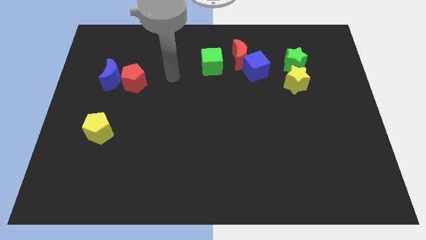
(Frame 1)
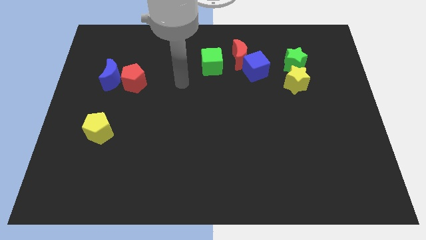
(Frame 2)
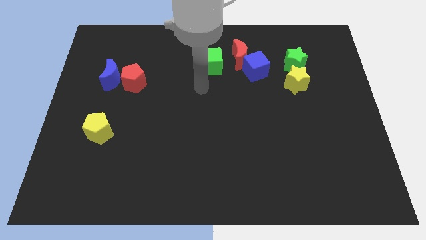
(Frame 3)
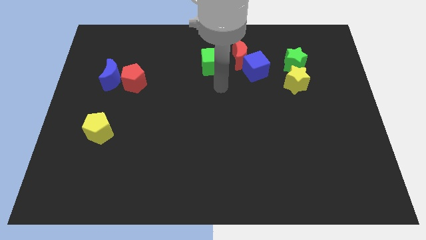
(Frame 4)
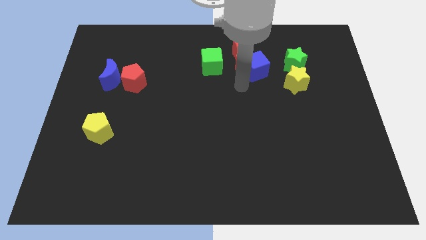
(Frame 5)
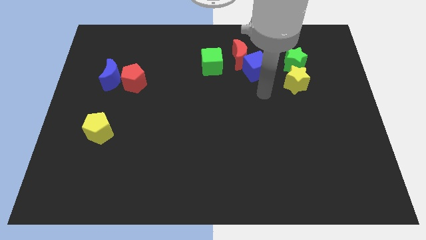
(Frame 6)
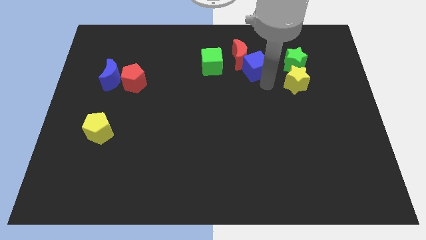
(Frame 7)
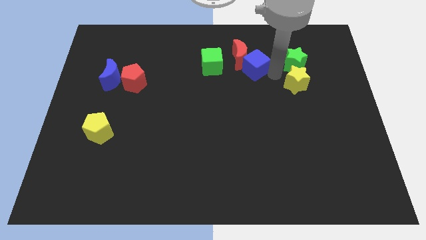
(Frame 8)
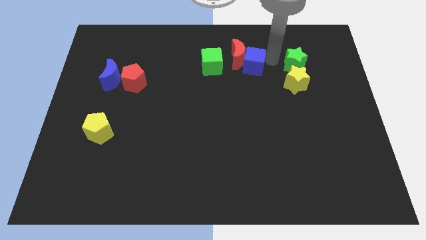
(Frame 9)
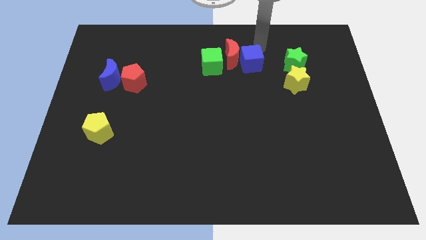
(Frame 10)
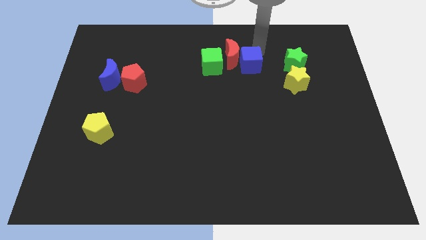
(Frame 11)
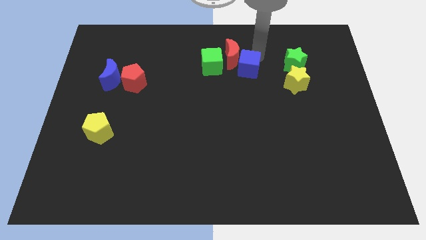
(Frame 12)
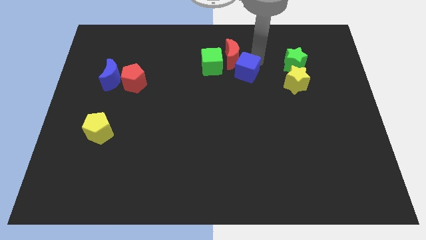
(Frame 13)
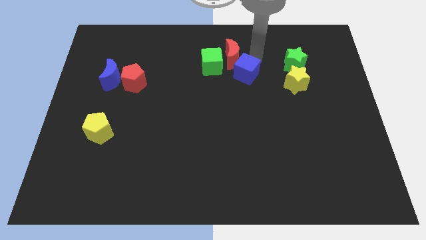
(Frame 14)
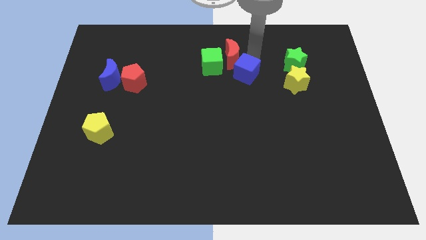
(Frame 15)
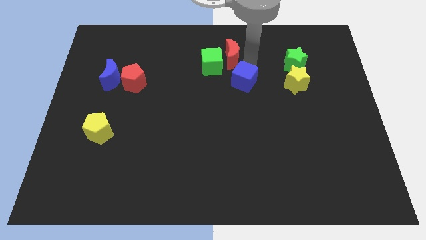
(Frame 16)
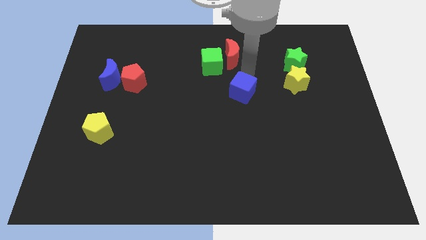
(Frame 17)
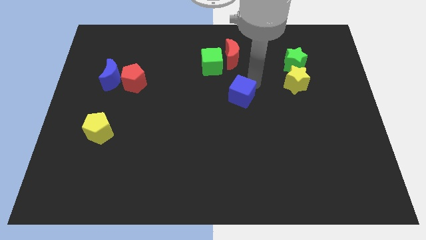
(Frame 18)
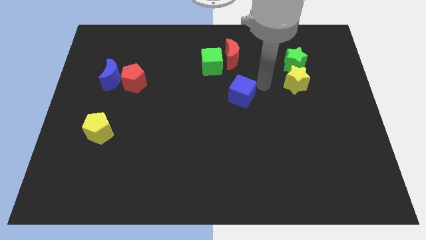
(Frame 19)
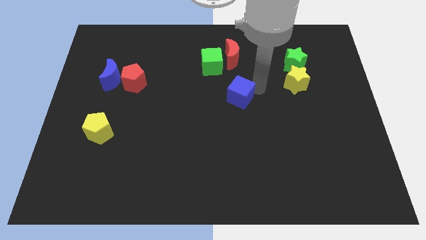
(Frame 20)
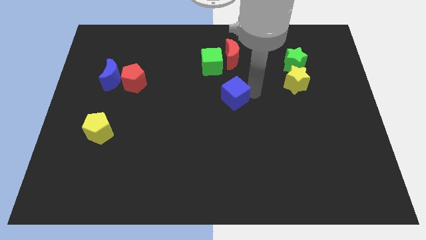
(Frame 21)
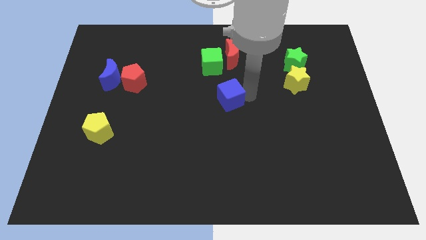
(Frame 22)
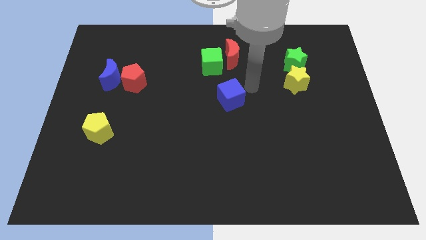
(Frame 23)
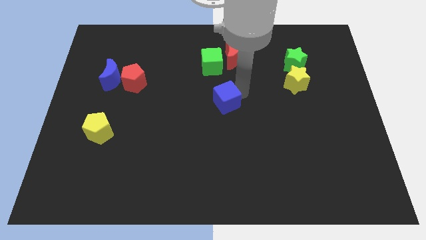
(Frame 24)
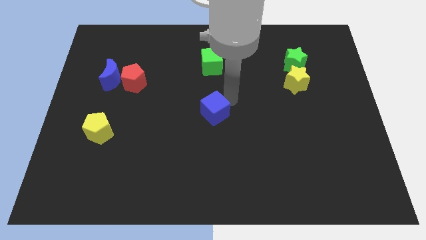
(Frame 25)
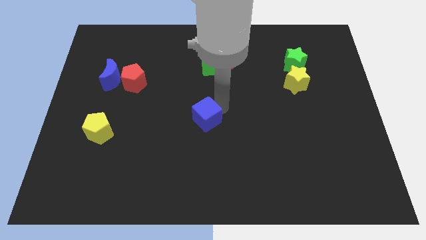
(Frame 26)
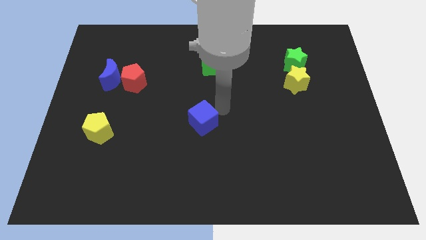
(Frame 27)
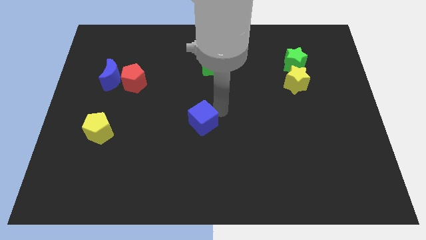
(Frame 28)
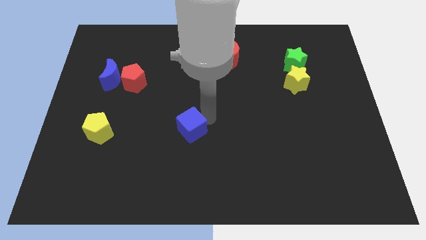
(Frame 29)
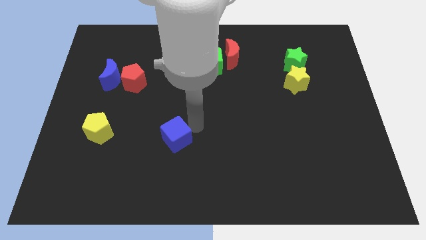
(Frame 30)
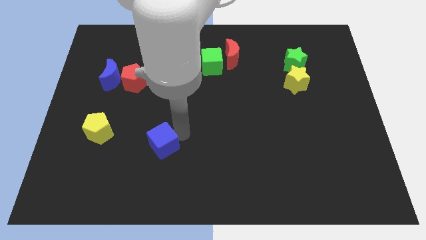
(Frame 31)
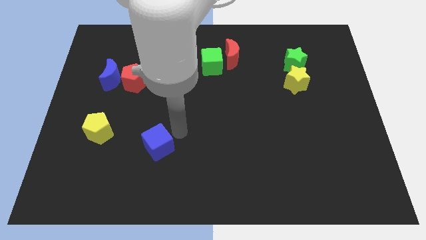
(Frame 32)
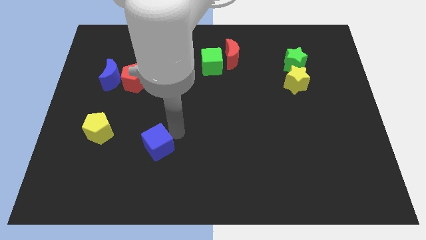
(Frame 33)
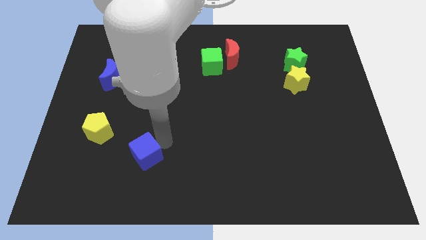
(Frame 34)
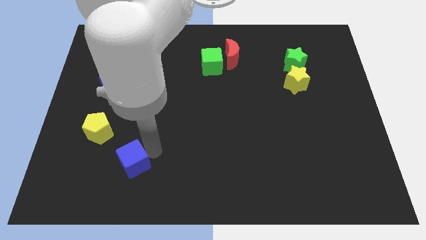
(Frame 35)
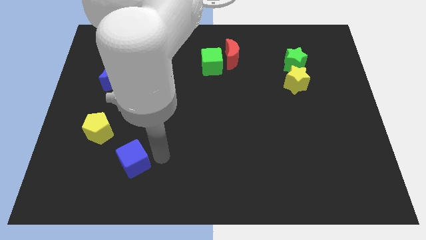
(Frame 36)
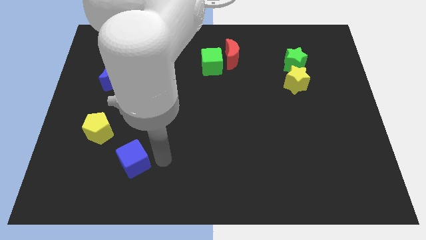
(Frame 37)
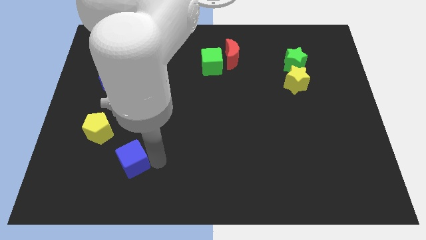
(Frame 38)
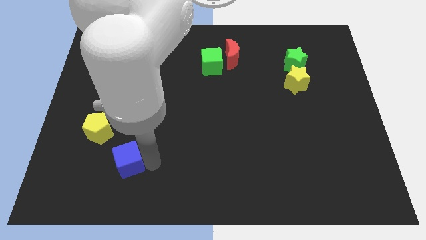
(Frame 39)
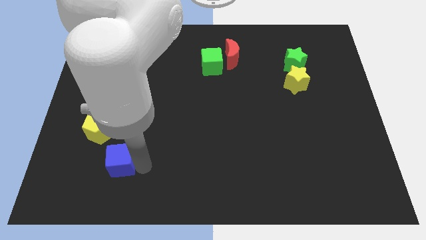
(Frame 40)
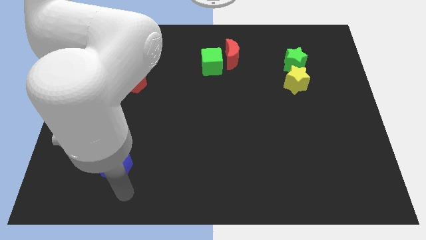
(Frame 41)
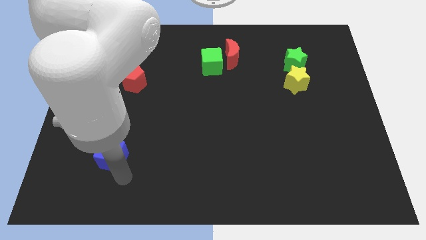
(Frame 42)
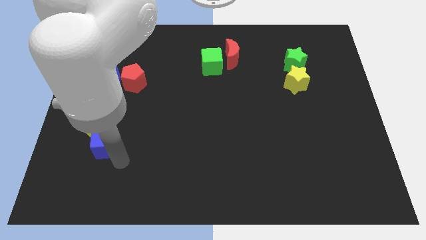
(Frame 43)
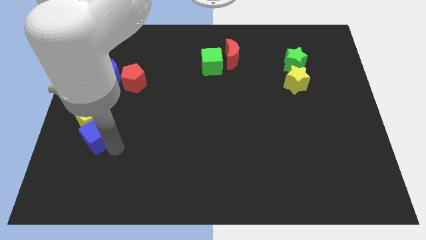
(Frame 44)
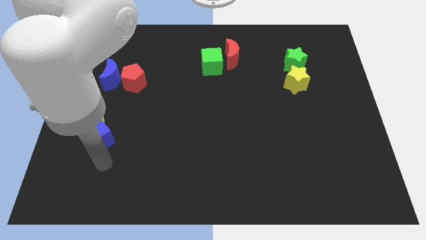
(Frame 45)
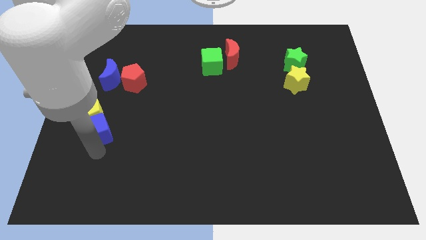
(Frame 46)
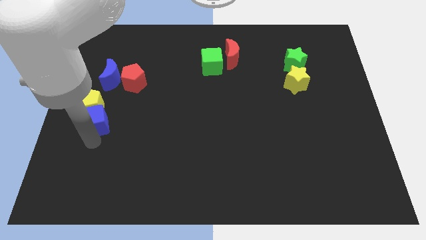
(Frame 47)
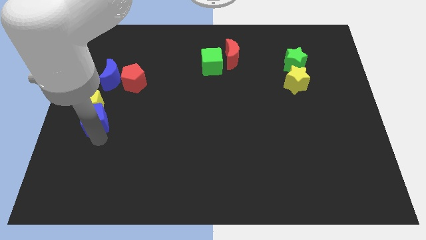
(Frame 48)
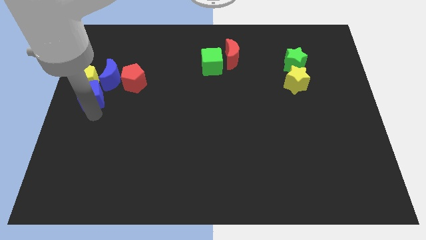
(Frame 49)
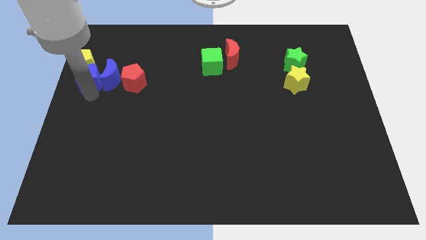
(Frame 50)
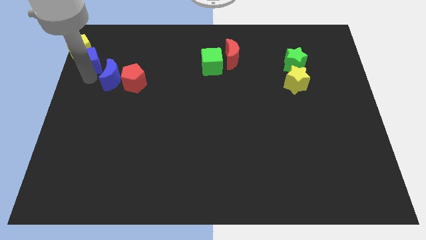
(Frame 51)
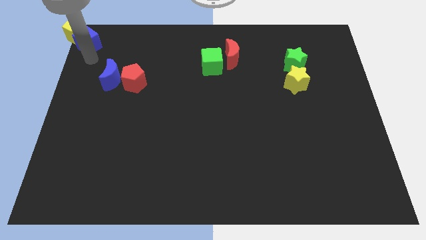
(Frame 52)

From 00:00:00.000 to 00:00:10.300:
put the blue cube to the top left

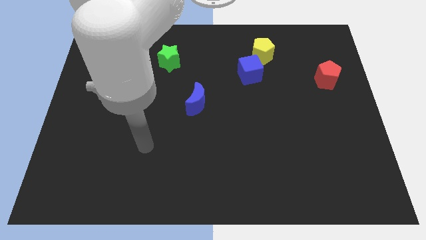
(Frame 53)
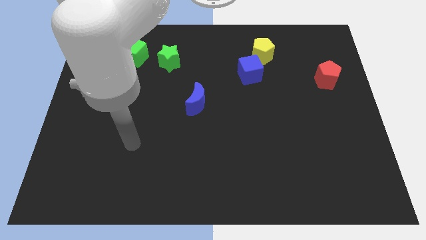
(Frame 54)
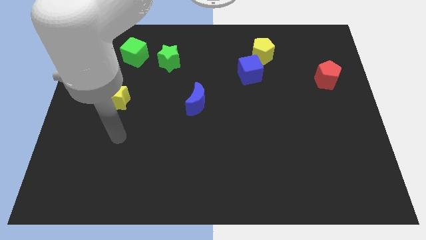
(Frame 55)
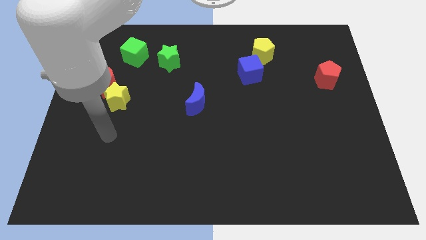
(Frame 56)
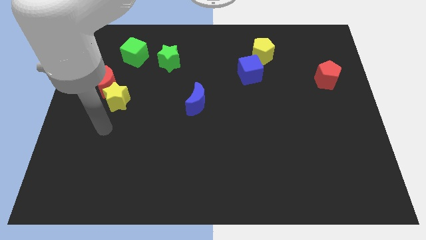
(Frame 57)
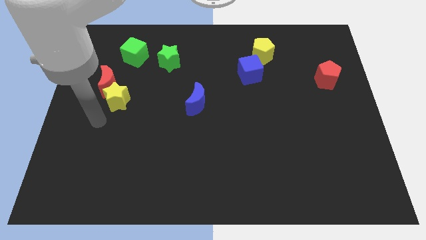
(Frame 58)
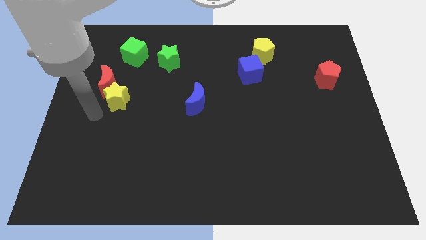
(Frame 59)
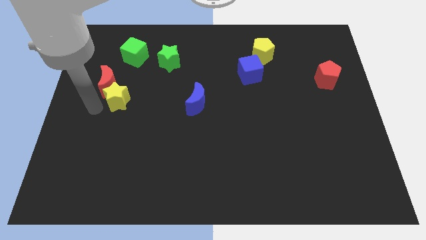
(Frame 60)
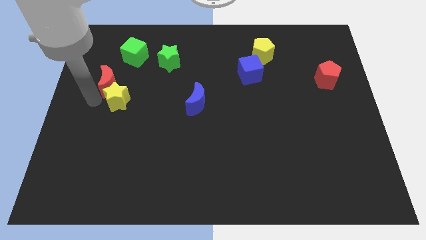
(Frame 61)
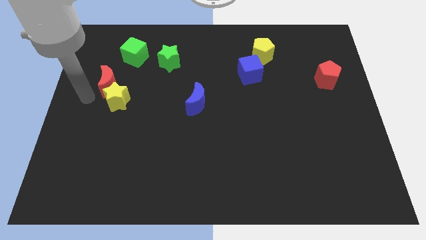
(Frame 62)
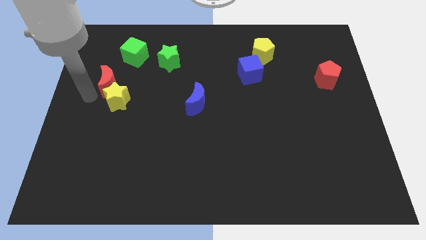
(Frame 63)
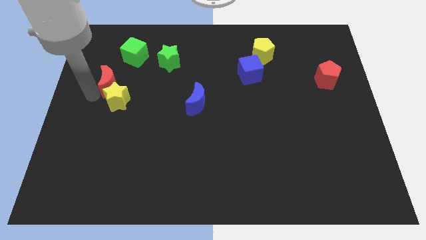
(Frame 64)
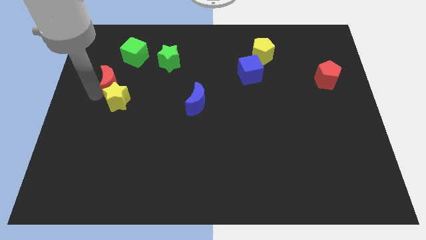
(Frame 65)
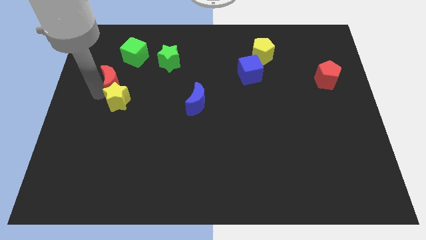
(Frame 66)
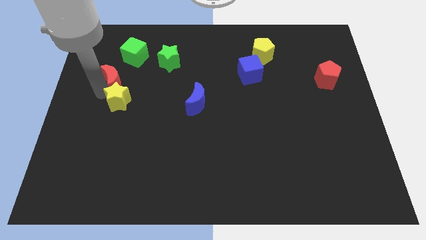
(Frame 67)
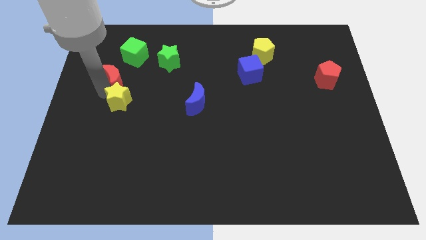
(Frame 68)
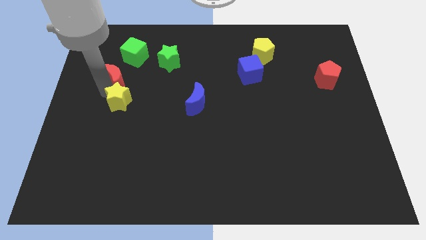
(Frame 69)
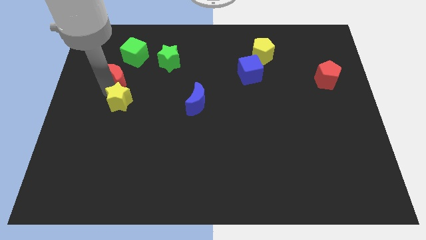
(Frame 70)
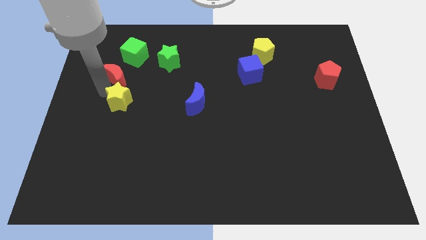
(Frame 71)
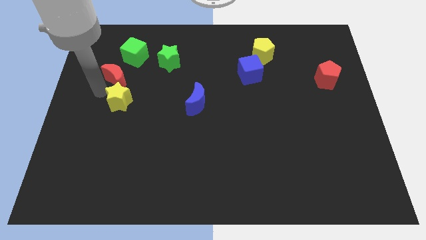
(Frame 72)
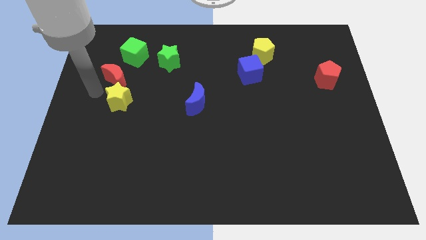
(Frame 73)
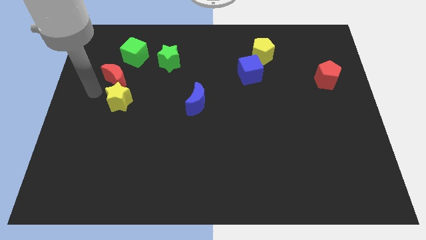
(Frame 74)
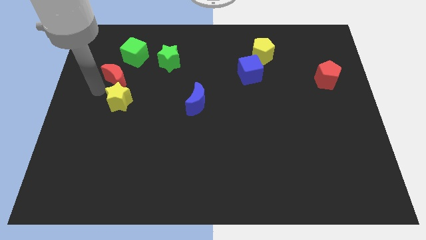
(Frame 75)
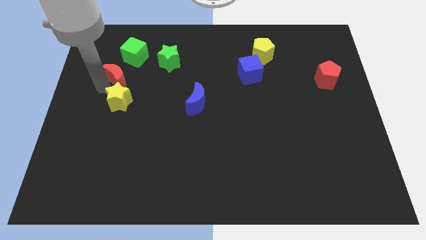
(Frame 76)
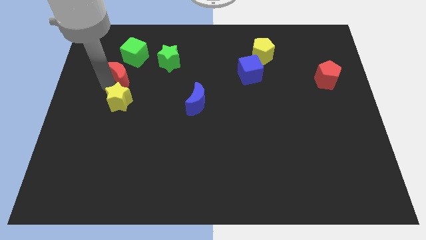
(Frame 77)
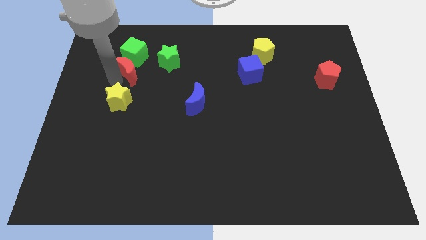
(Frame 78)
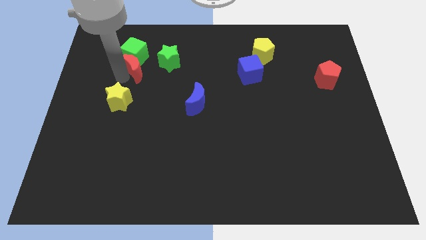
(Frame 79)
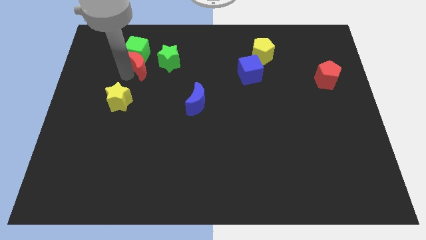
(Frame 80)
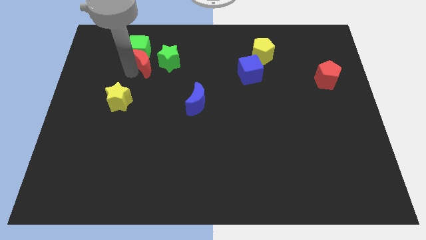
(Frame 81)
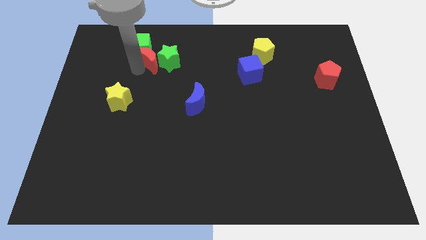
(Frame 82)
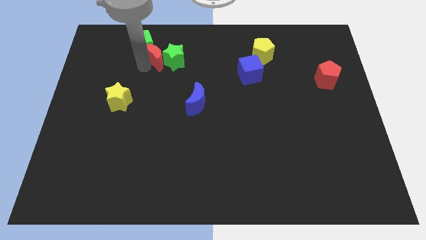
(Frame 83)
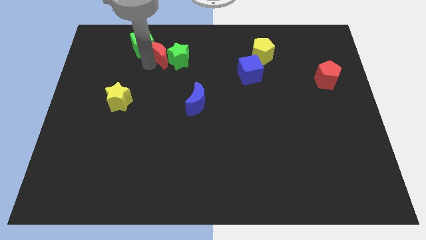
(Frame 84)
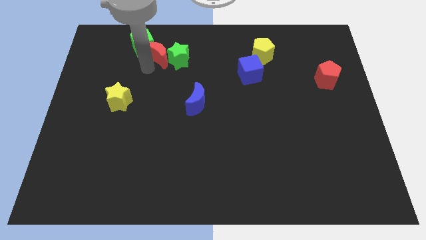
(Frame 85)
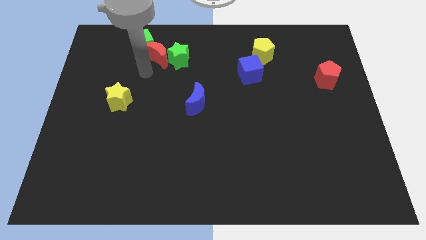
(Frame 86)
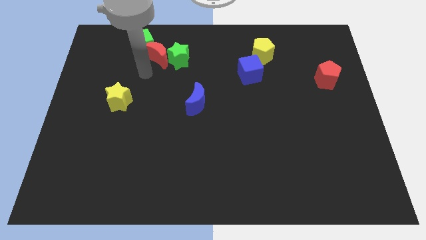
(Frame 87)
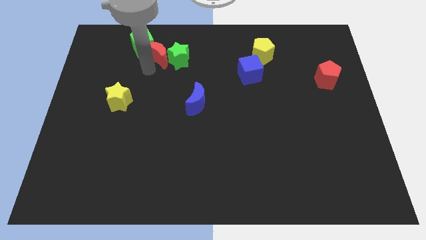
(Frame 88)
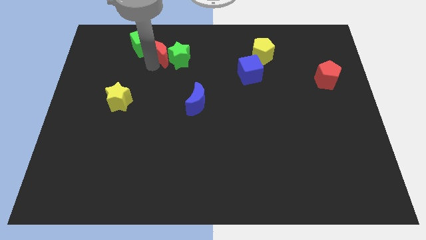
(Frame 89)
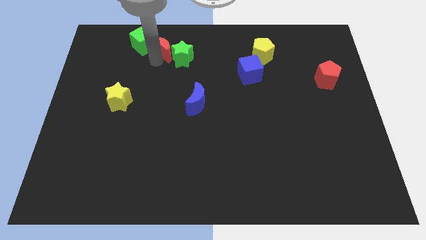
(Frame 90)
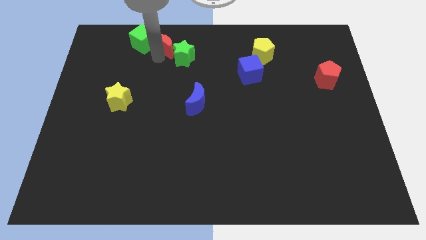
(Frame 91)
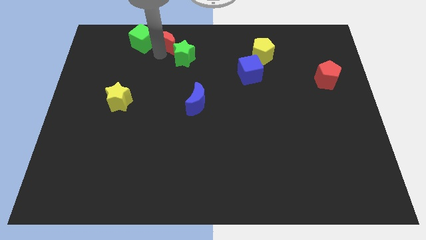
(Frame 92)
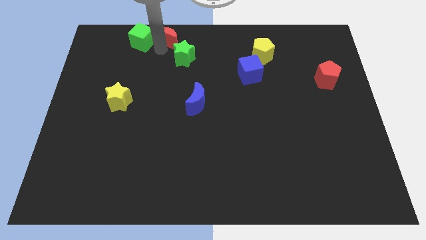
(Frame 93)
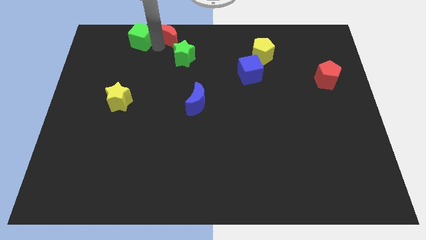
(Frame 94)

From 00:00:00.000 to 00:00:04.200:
put the red moon to the towards your base
